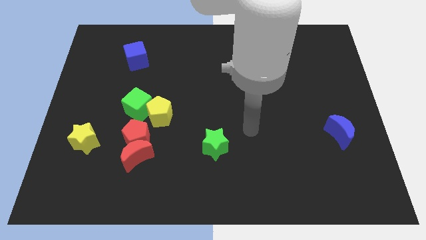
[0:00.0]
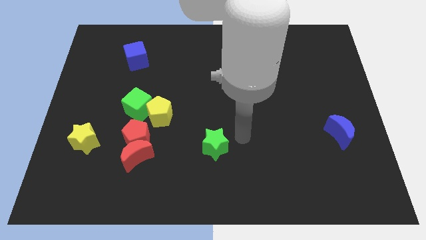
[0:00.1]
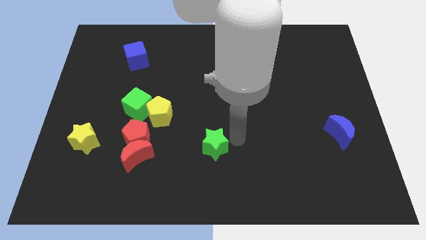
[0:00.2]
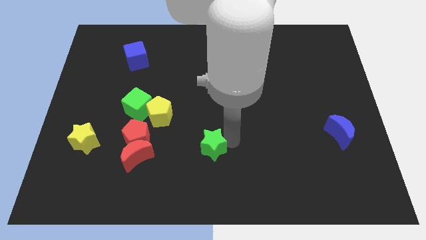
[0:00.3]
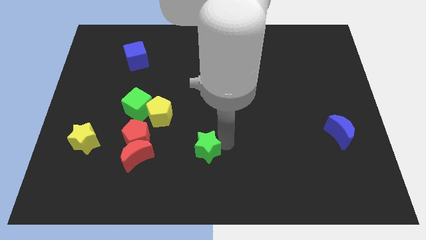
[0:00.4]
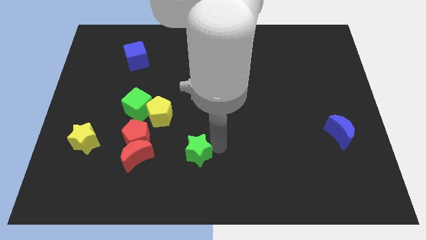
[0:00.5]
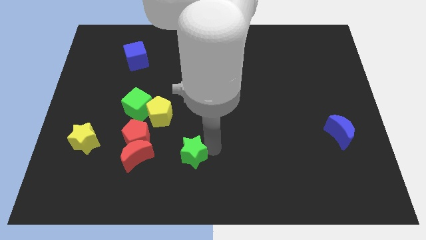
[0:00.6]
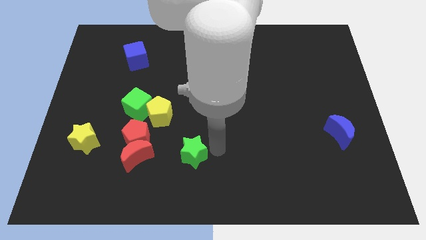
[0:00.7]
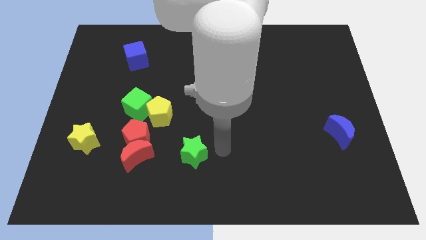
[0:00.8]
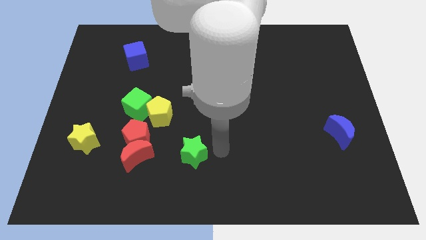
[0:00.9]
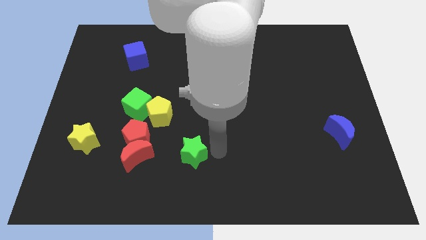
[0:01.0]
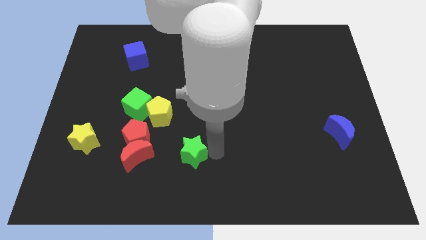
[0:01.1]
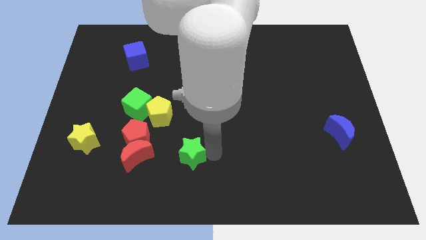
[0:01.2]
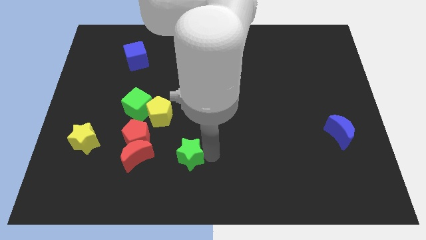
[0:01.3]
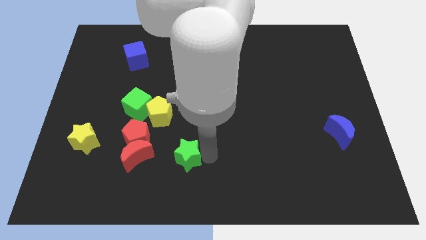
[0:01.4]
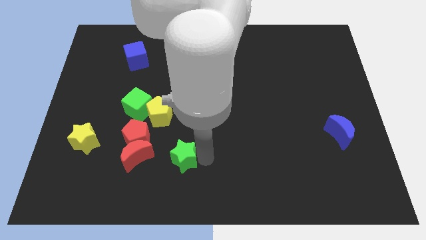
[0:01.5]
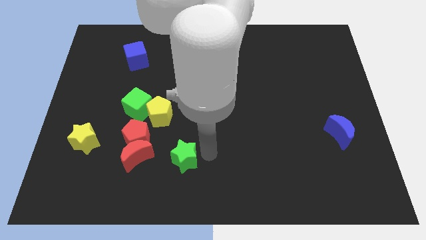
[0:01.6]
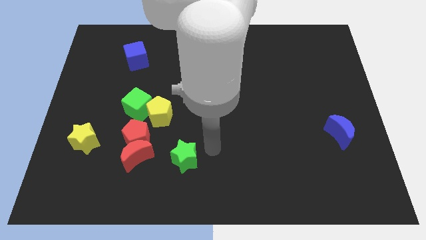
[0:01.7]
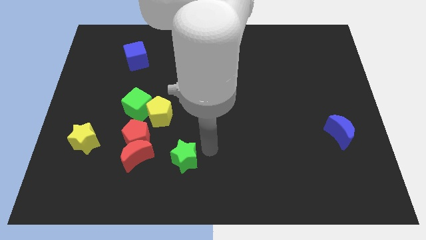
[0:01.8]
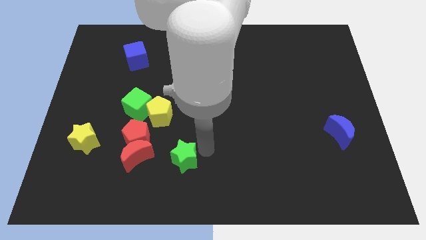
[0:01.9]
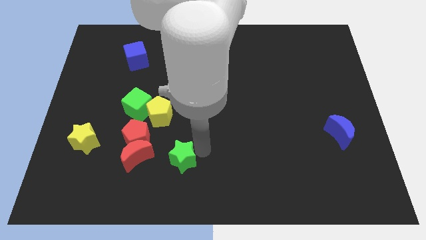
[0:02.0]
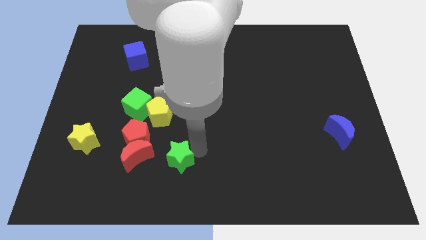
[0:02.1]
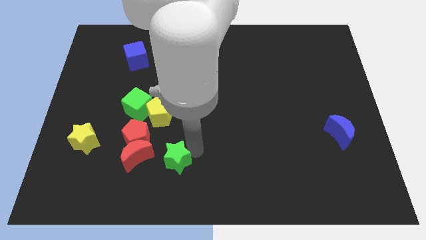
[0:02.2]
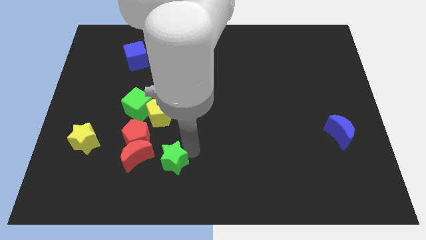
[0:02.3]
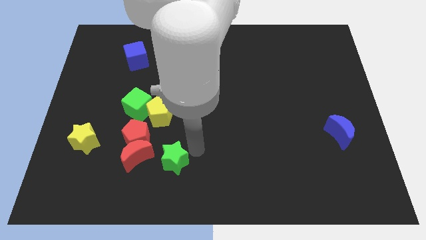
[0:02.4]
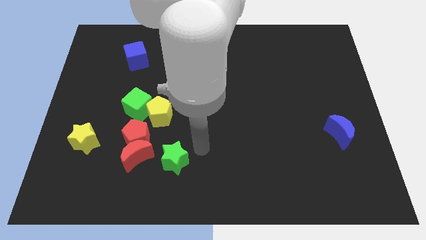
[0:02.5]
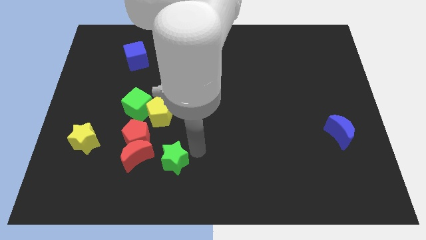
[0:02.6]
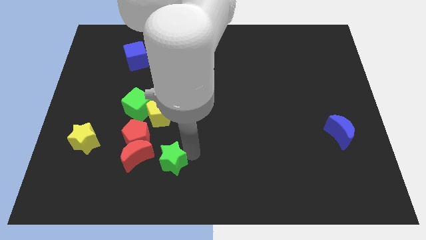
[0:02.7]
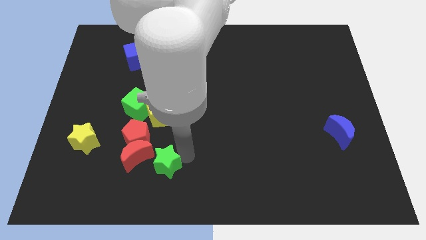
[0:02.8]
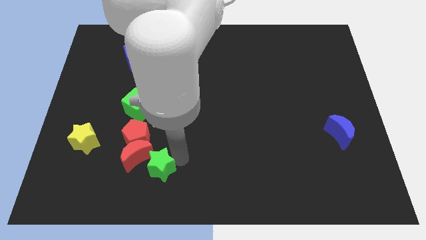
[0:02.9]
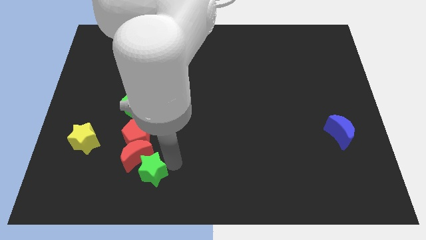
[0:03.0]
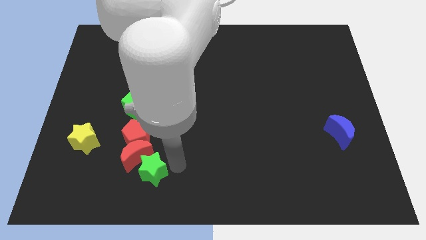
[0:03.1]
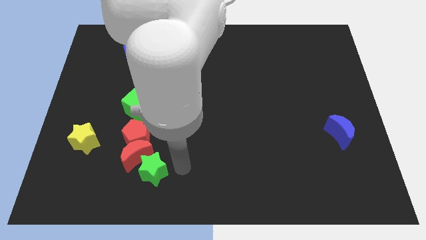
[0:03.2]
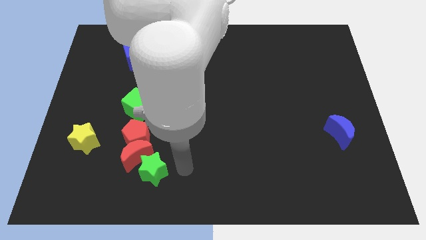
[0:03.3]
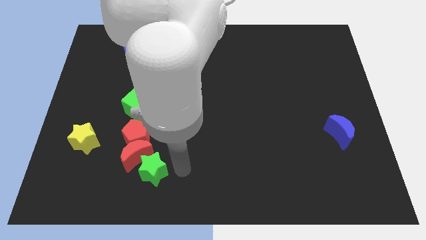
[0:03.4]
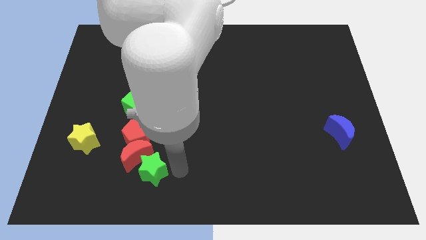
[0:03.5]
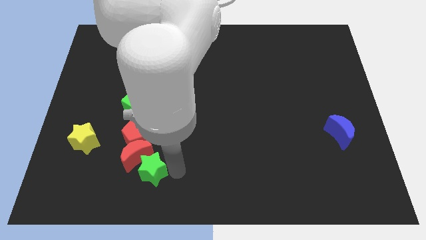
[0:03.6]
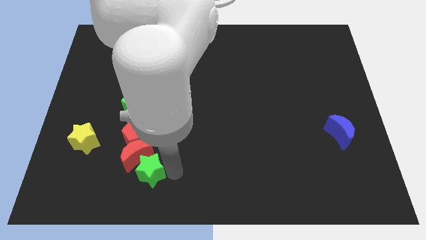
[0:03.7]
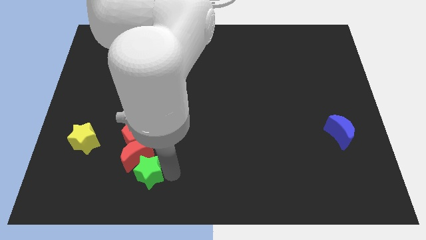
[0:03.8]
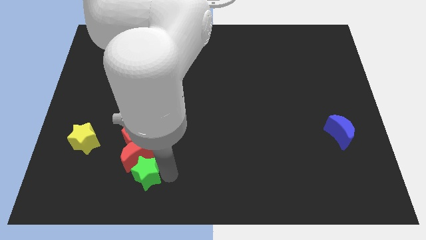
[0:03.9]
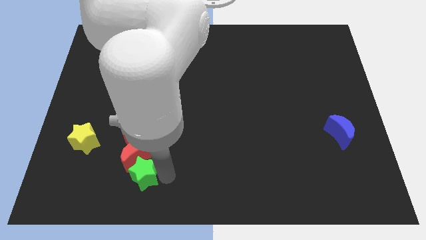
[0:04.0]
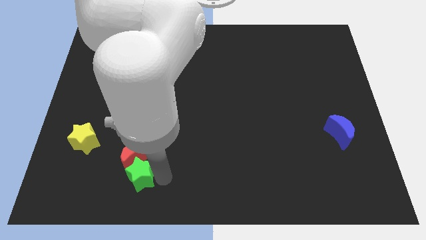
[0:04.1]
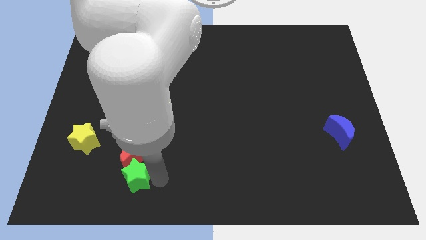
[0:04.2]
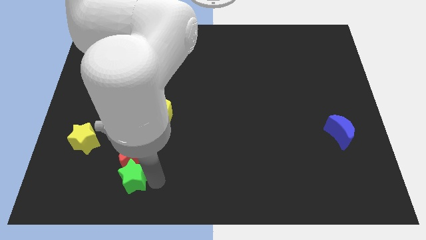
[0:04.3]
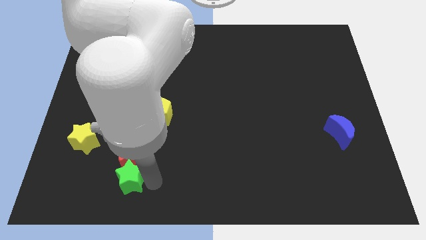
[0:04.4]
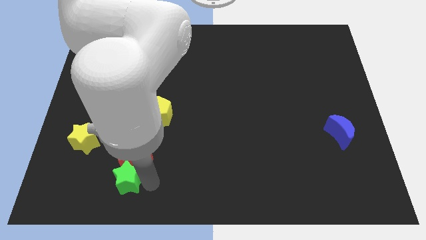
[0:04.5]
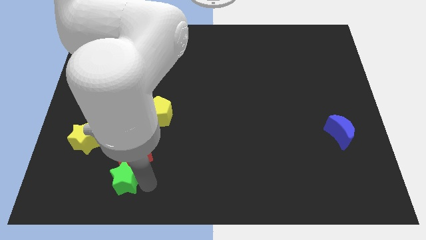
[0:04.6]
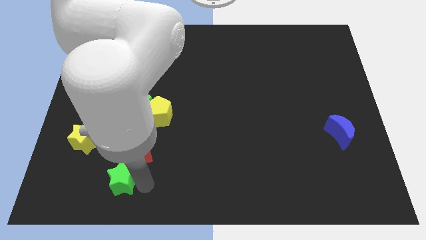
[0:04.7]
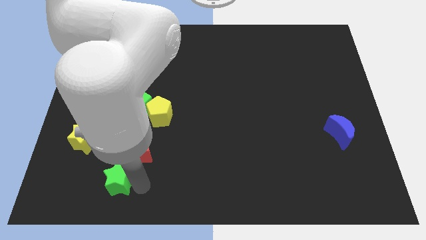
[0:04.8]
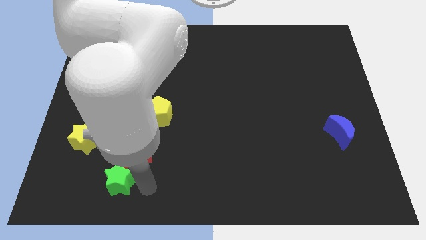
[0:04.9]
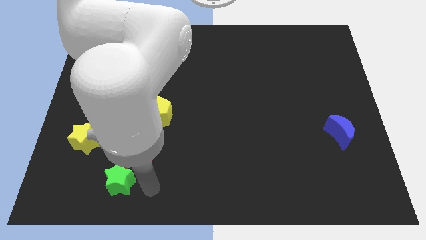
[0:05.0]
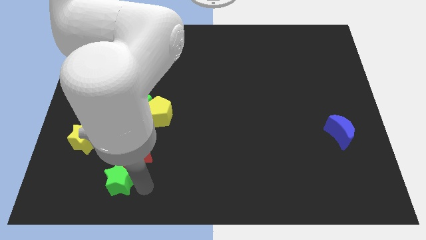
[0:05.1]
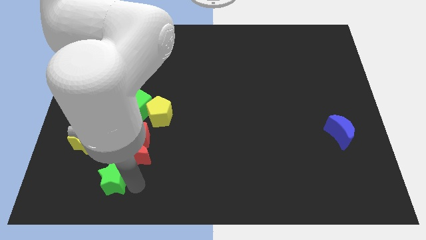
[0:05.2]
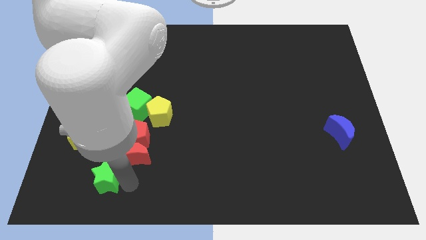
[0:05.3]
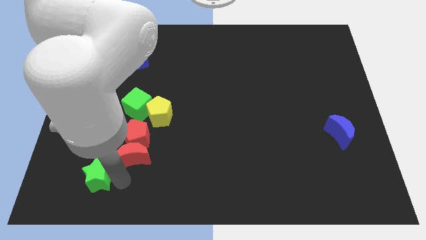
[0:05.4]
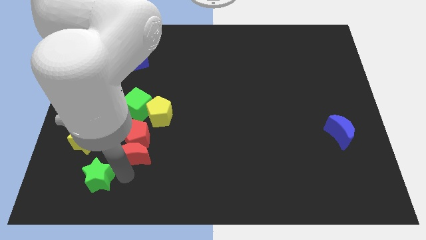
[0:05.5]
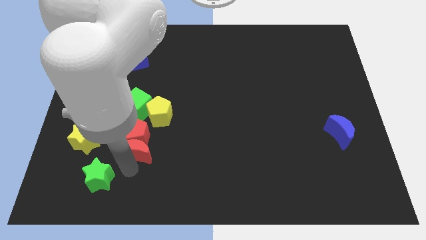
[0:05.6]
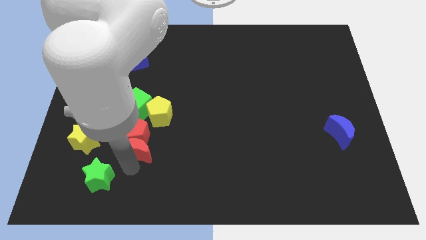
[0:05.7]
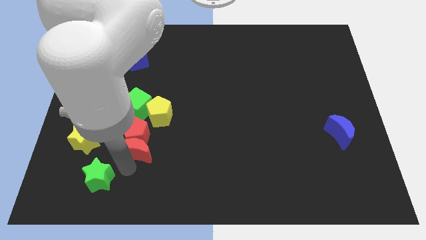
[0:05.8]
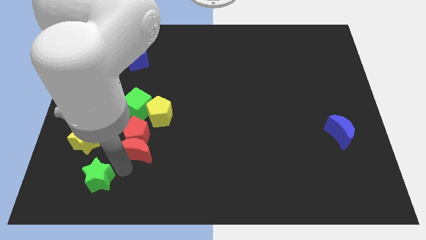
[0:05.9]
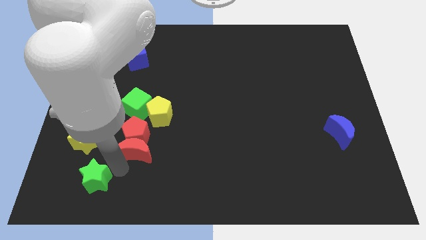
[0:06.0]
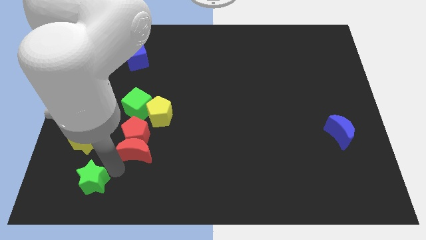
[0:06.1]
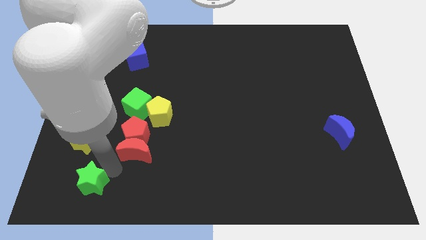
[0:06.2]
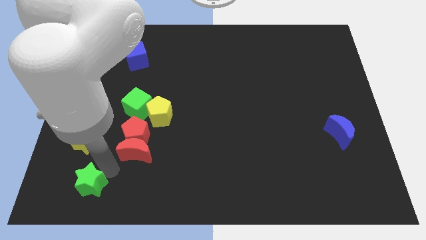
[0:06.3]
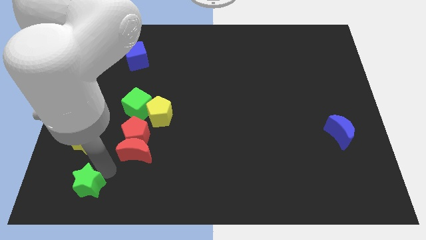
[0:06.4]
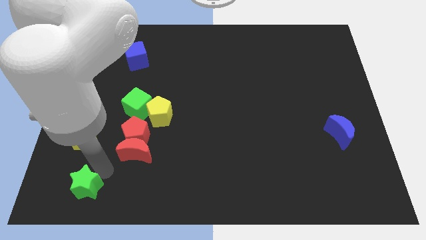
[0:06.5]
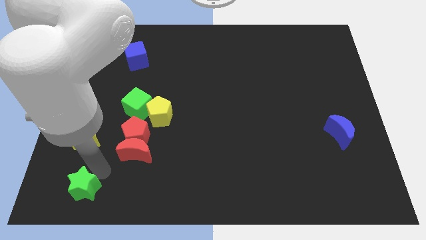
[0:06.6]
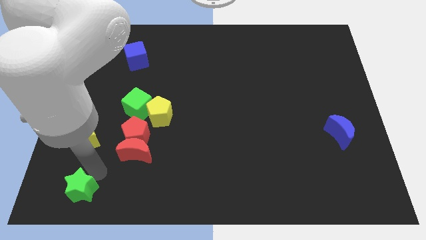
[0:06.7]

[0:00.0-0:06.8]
put the green star to the lower left corner
